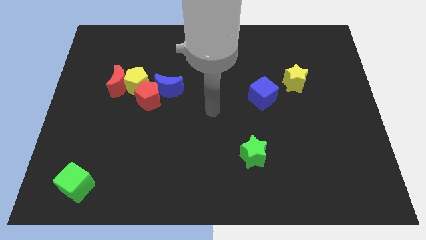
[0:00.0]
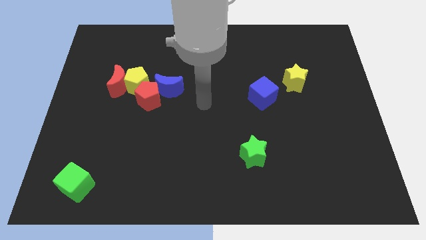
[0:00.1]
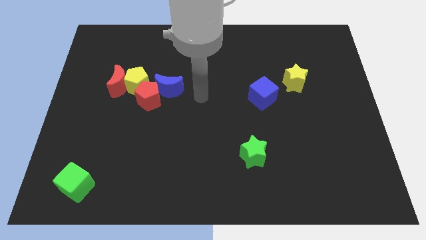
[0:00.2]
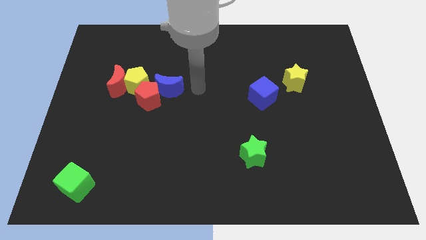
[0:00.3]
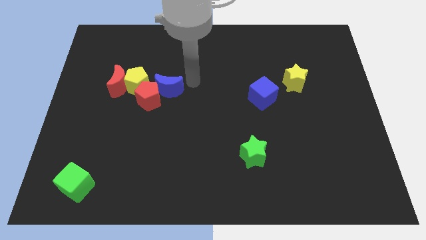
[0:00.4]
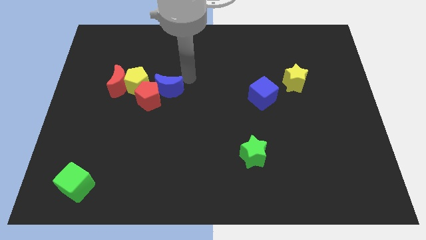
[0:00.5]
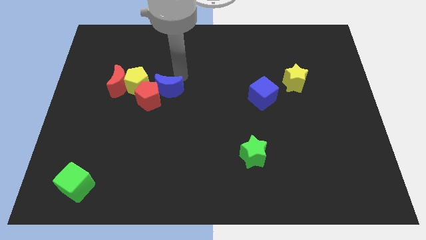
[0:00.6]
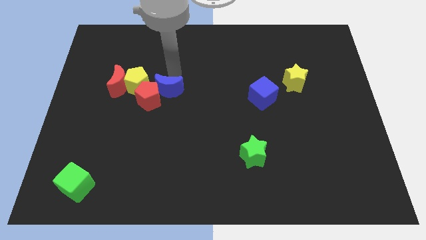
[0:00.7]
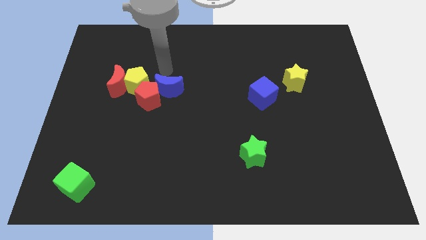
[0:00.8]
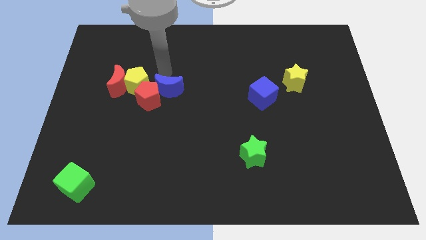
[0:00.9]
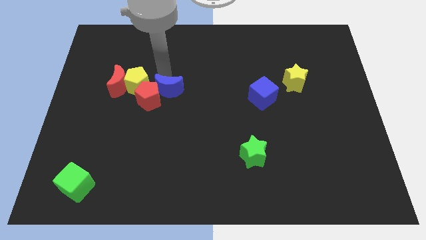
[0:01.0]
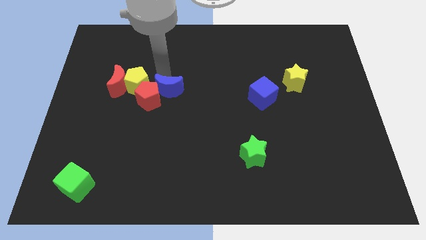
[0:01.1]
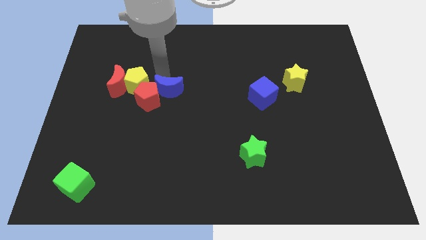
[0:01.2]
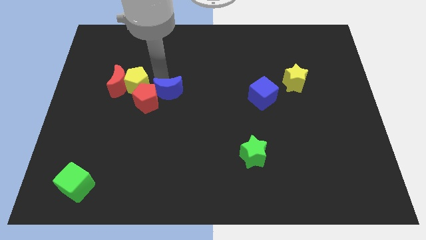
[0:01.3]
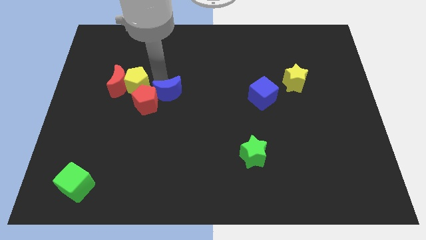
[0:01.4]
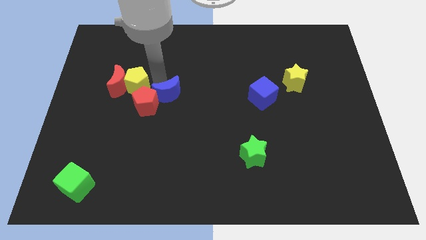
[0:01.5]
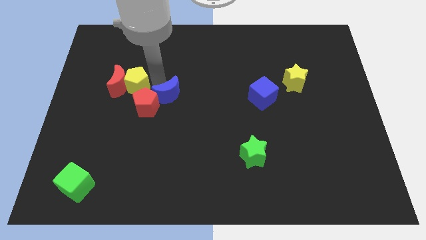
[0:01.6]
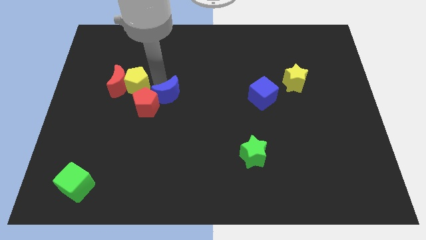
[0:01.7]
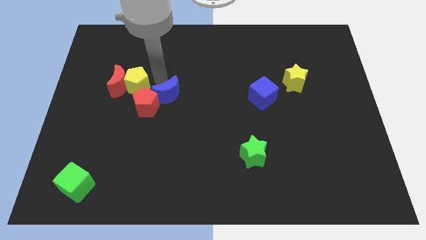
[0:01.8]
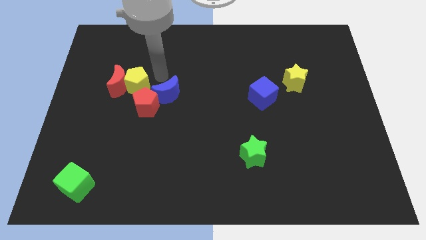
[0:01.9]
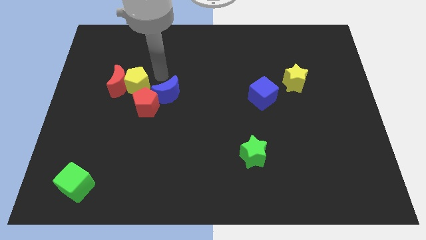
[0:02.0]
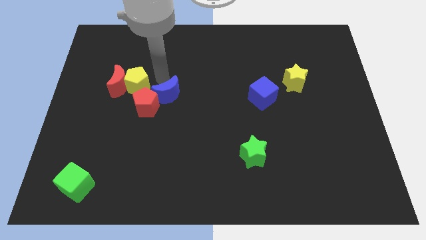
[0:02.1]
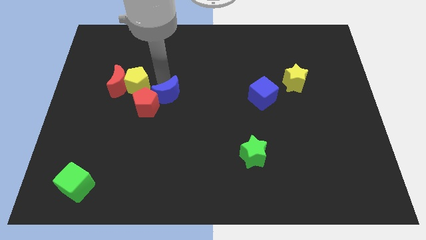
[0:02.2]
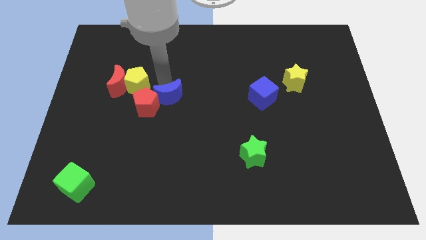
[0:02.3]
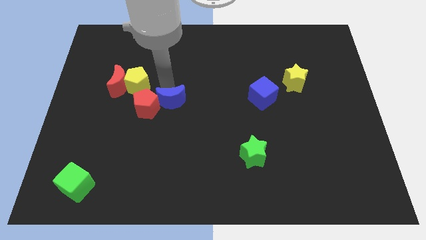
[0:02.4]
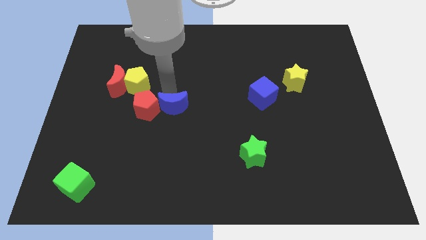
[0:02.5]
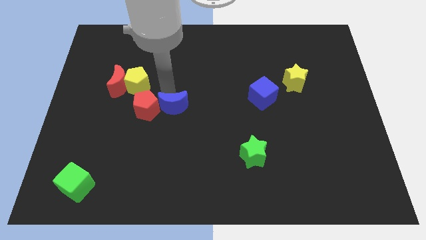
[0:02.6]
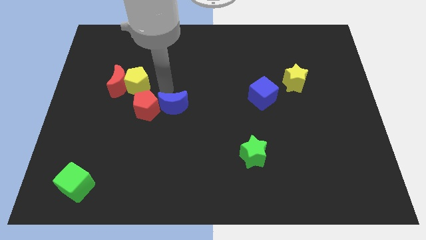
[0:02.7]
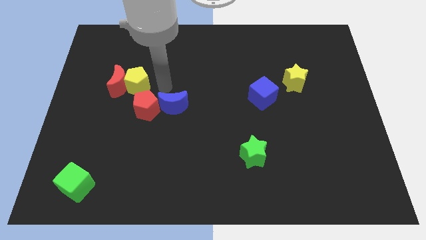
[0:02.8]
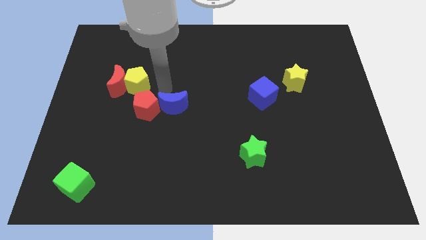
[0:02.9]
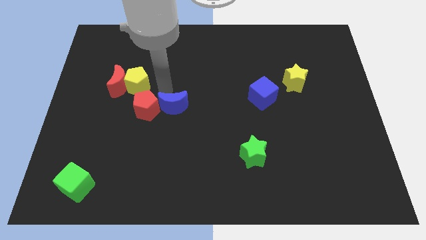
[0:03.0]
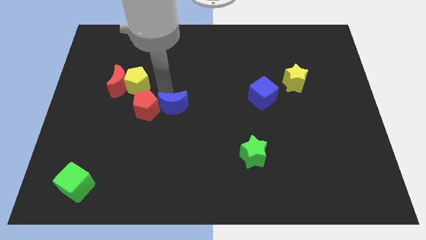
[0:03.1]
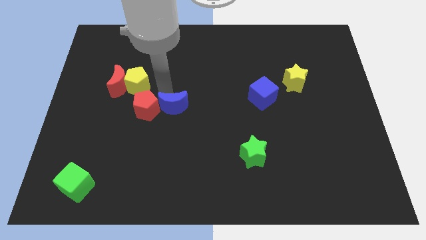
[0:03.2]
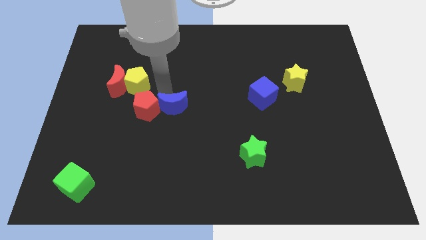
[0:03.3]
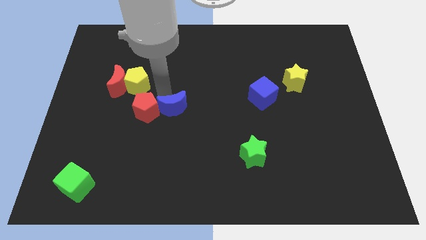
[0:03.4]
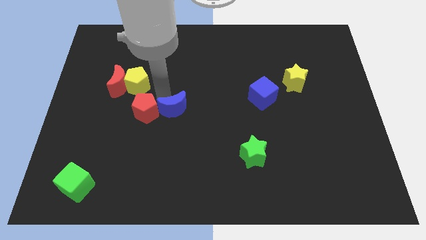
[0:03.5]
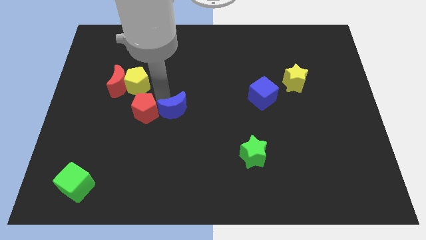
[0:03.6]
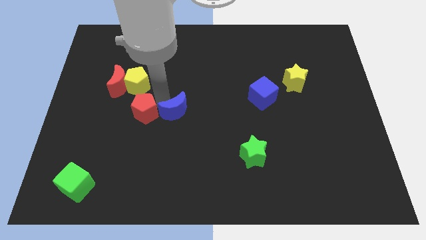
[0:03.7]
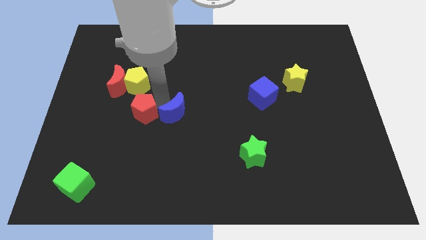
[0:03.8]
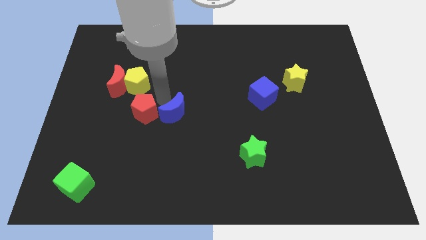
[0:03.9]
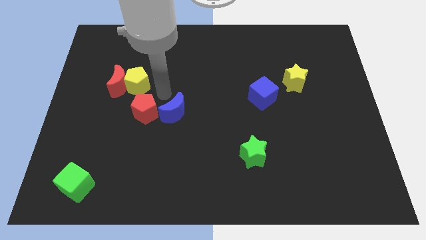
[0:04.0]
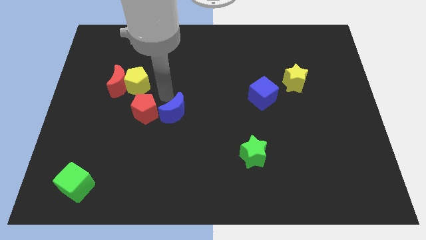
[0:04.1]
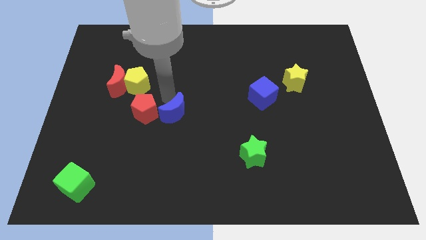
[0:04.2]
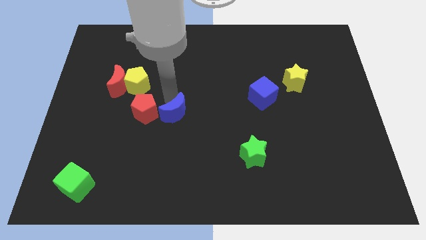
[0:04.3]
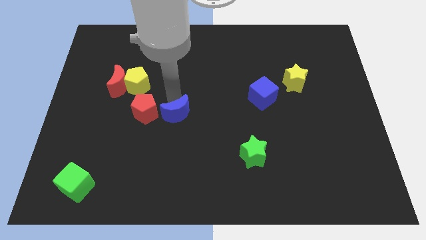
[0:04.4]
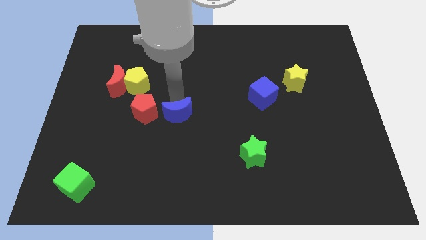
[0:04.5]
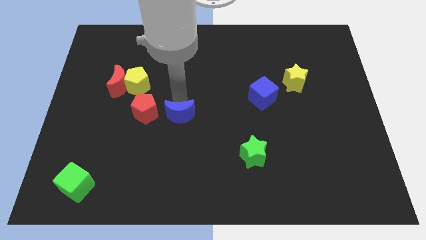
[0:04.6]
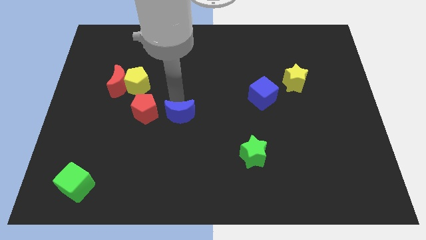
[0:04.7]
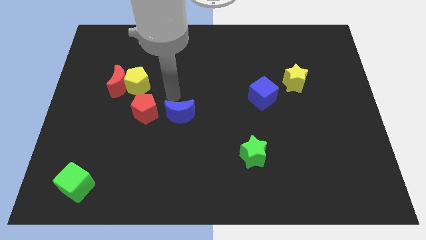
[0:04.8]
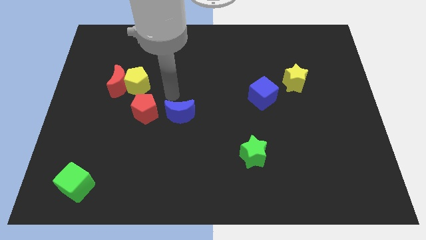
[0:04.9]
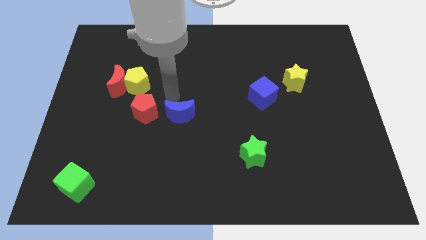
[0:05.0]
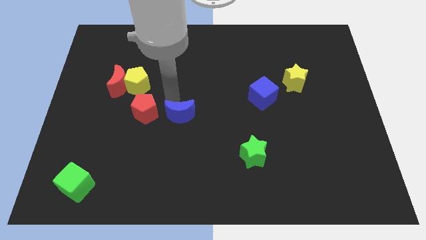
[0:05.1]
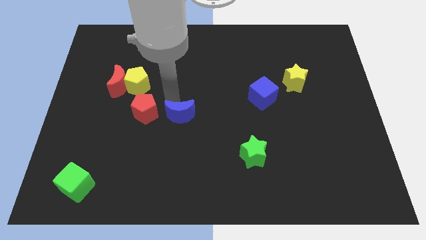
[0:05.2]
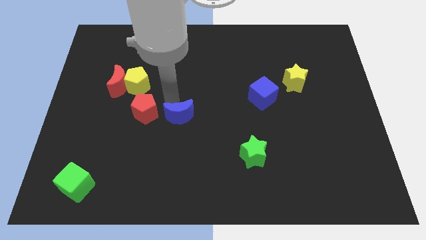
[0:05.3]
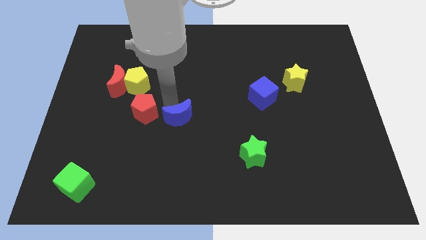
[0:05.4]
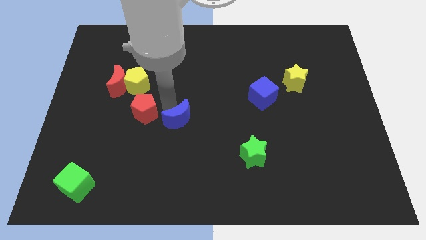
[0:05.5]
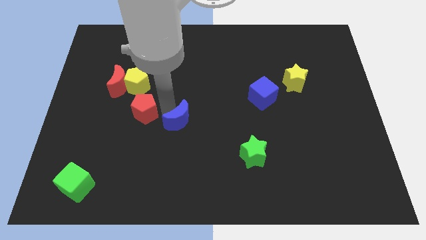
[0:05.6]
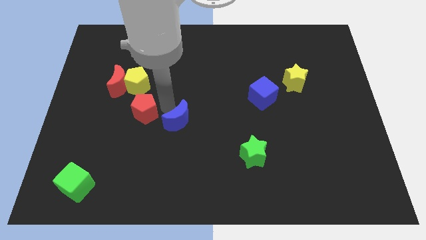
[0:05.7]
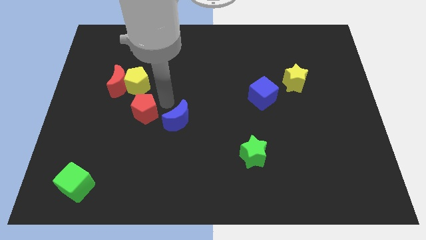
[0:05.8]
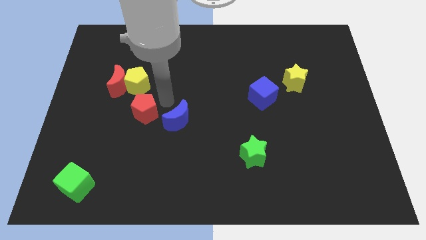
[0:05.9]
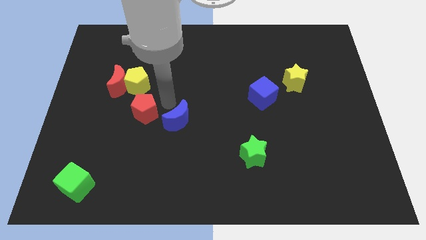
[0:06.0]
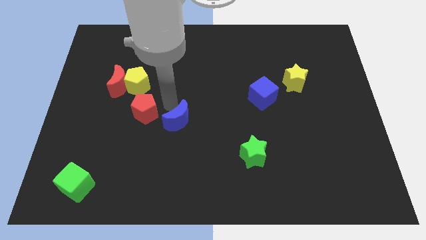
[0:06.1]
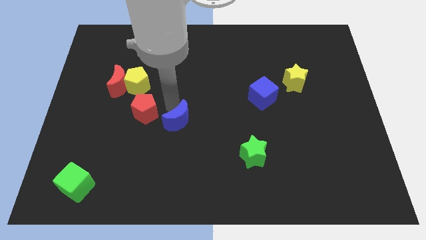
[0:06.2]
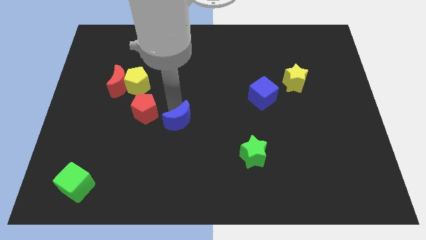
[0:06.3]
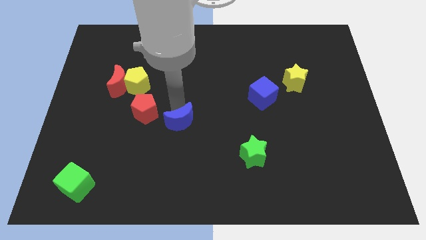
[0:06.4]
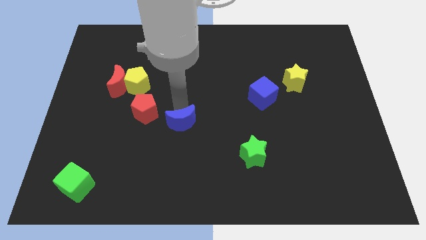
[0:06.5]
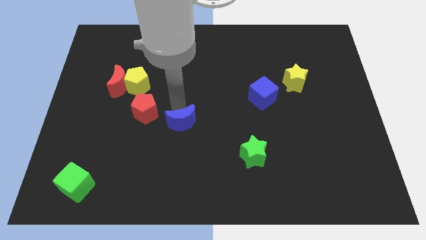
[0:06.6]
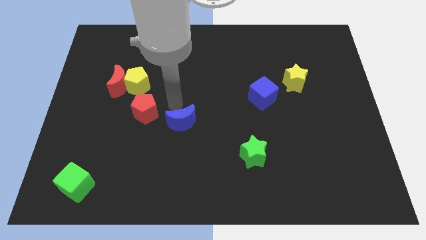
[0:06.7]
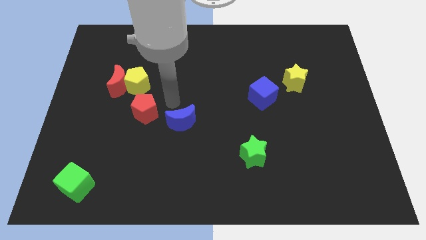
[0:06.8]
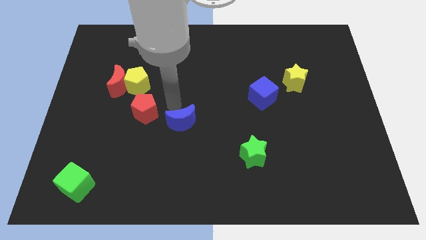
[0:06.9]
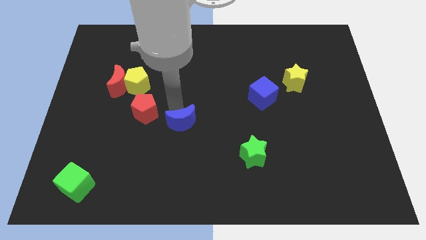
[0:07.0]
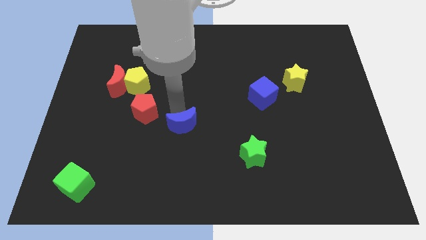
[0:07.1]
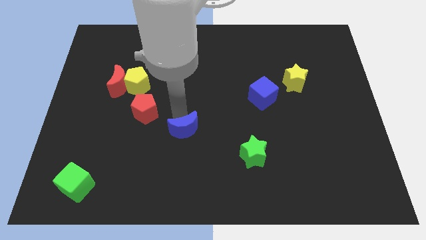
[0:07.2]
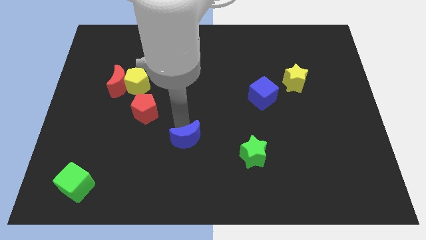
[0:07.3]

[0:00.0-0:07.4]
put the blue moon left of the green star
